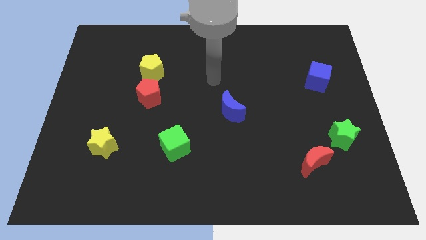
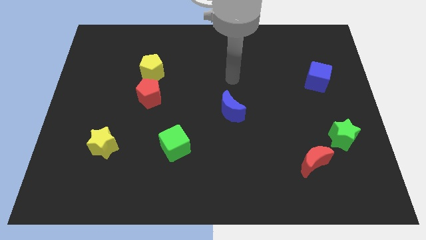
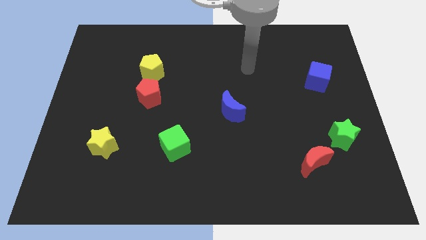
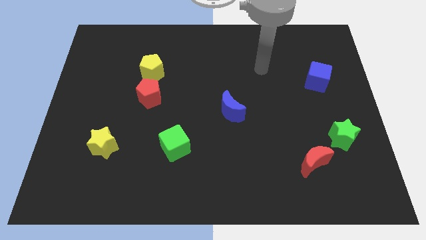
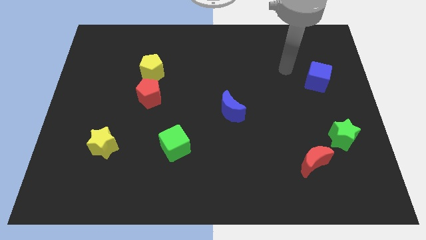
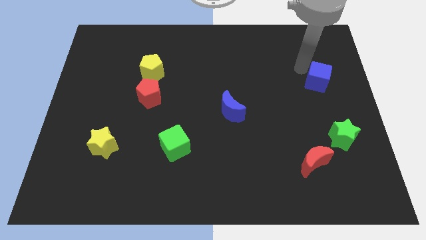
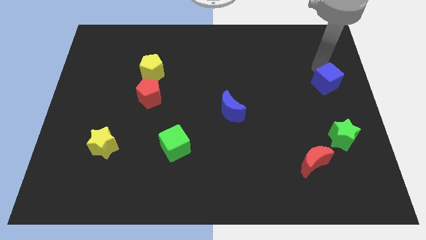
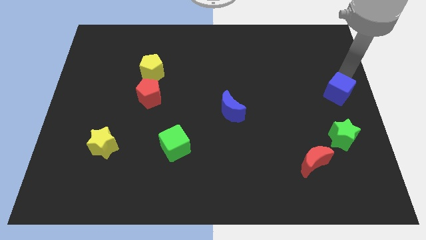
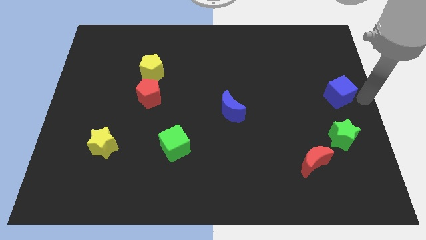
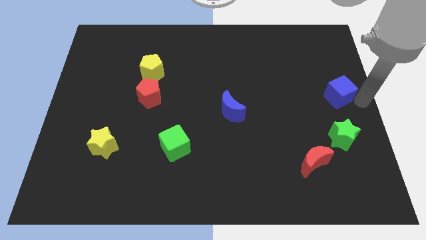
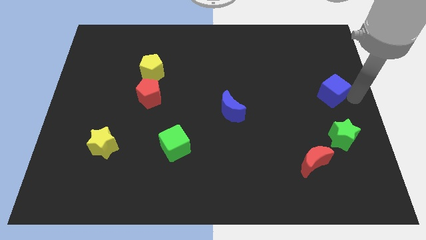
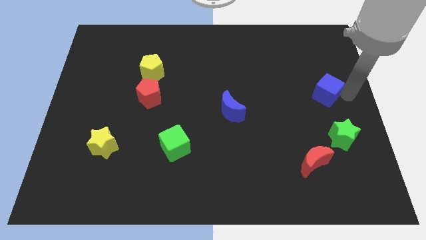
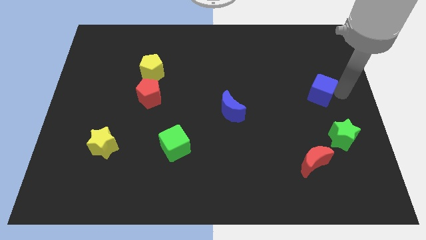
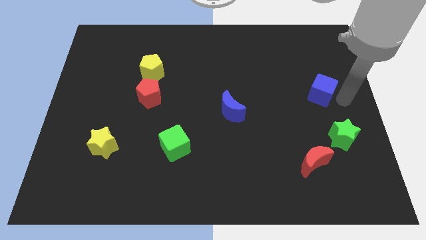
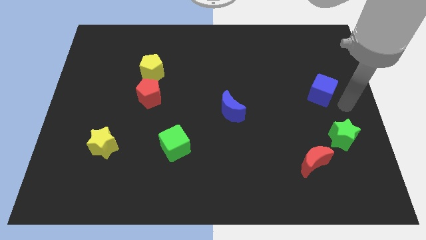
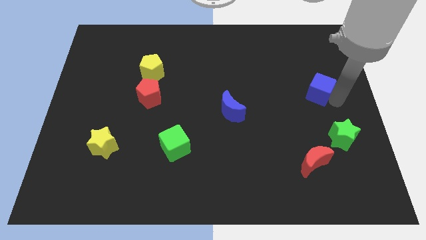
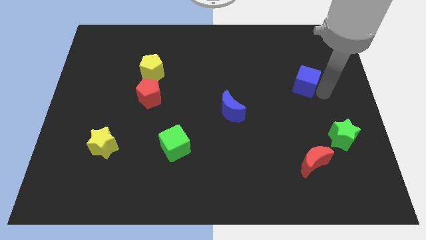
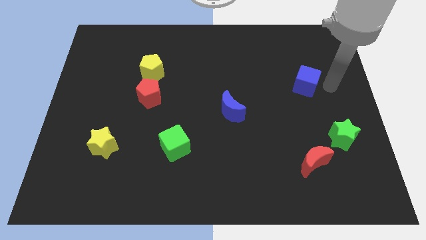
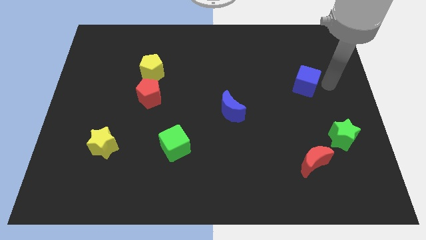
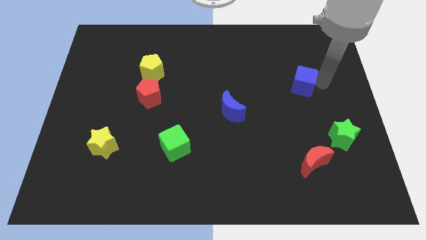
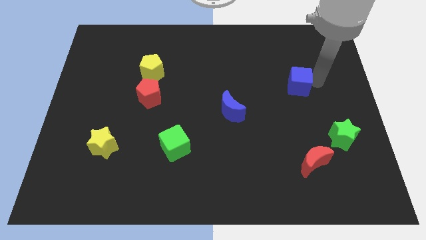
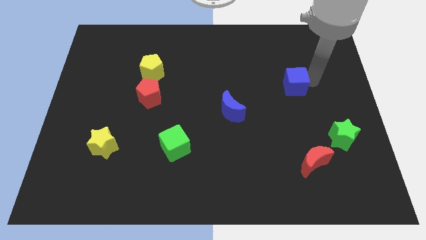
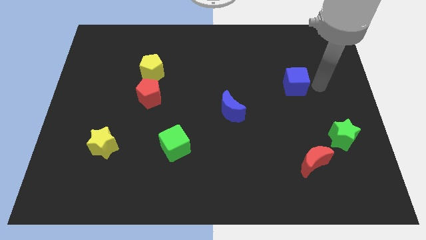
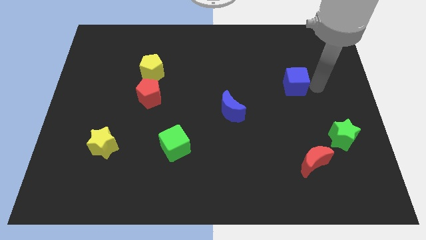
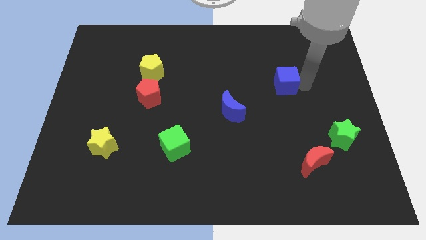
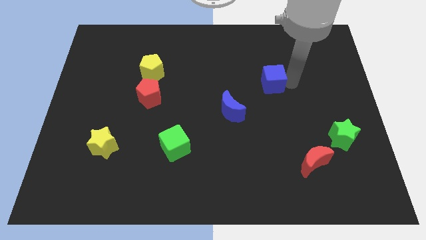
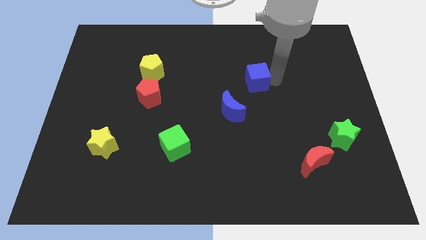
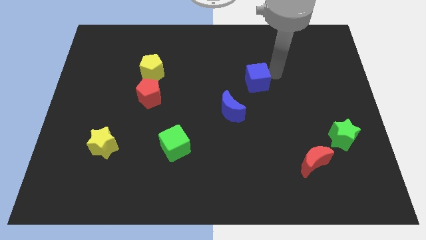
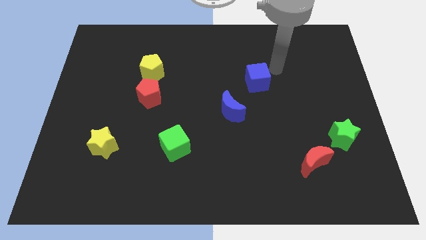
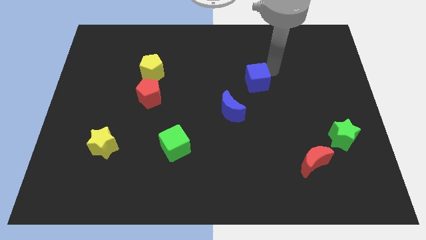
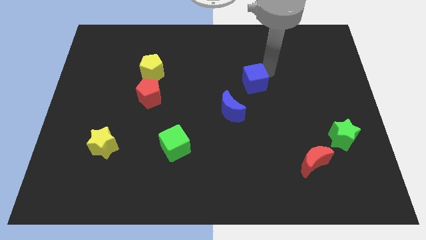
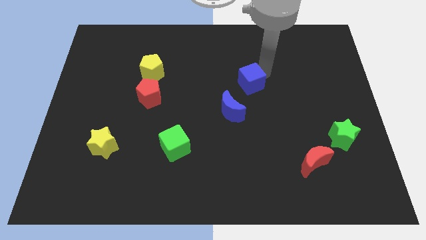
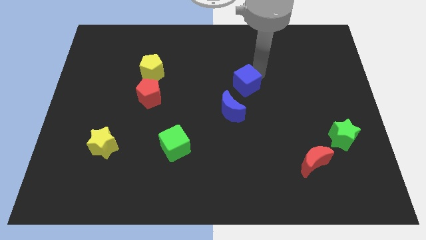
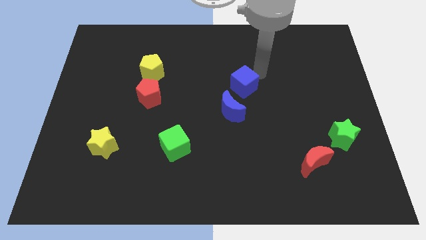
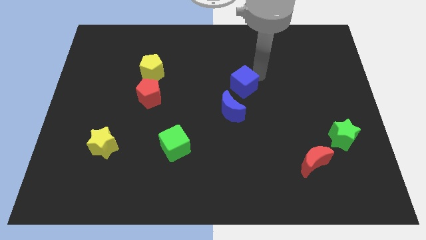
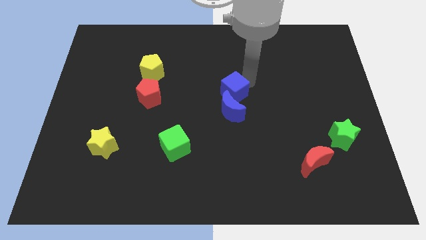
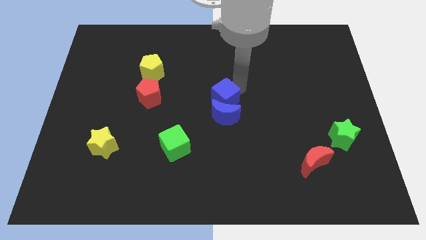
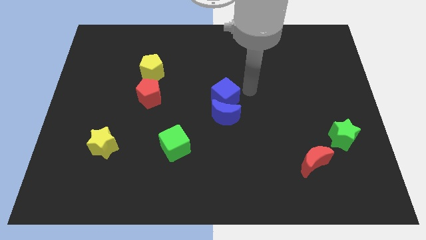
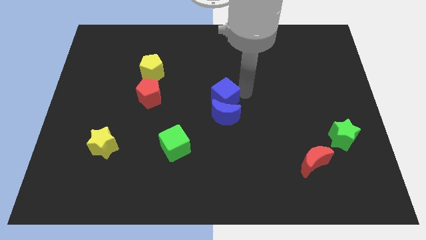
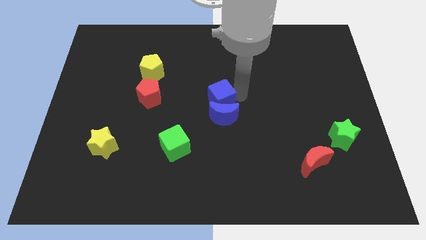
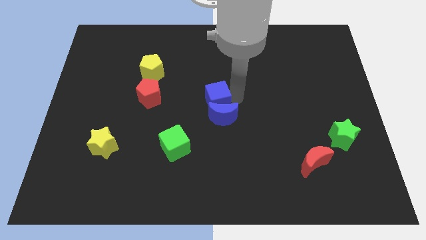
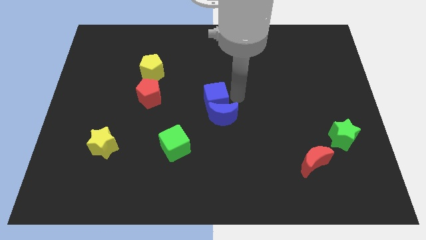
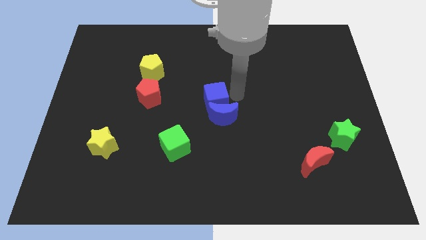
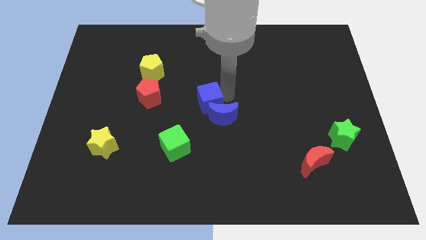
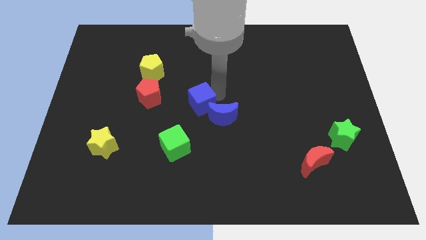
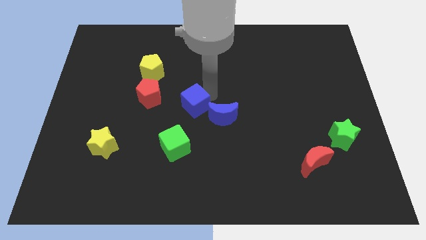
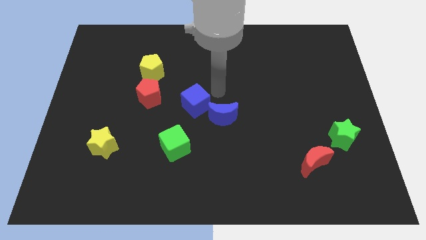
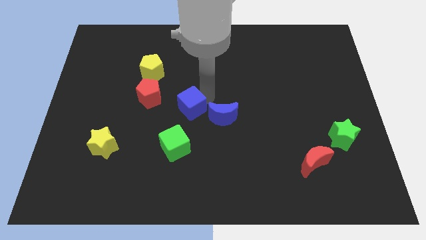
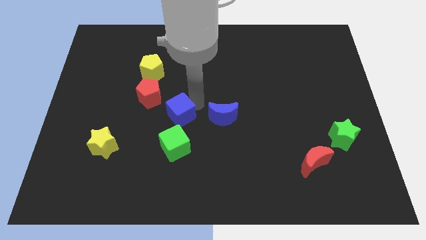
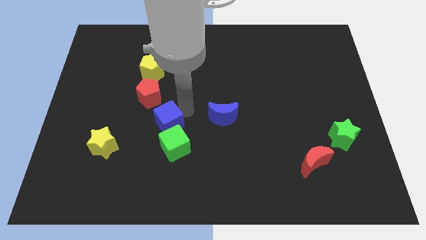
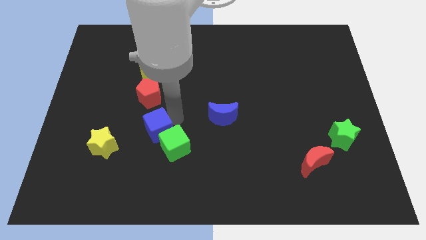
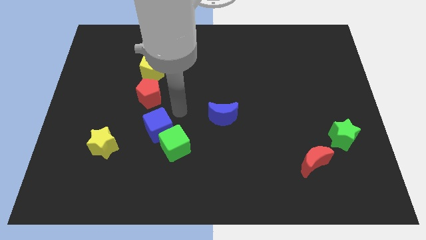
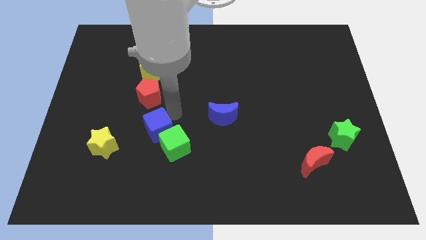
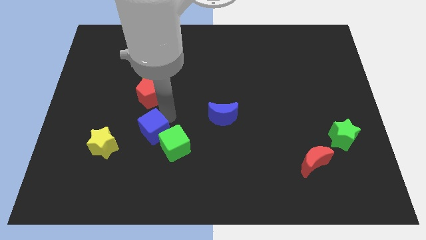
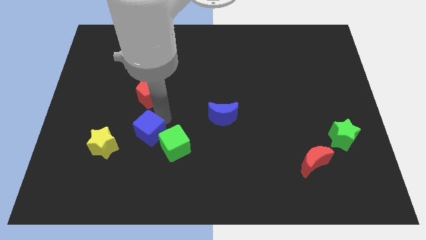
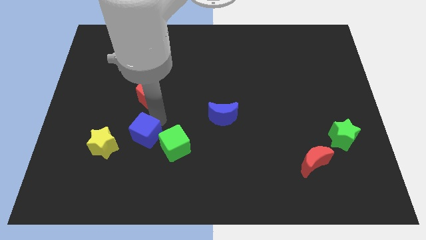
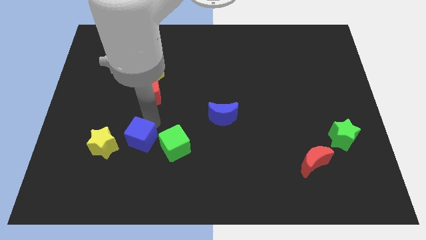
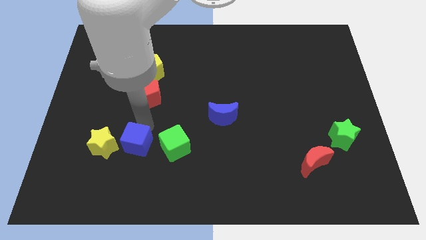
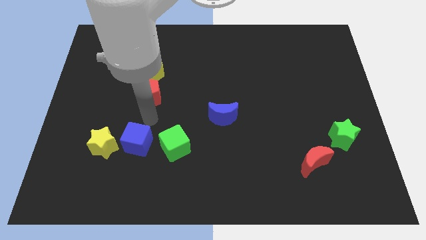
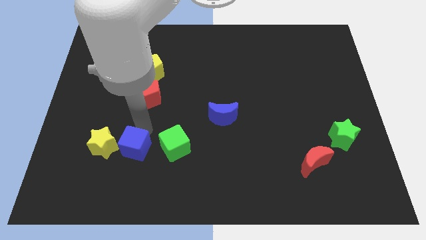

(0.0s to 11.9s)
push the blue cube to the bottom right of the yellow star
